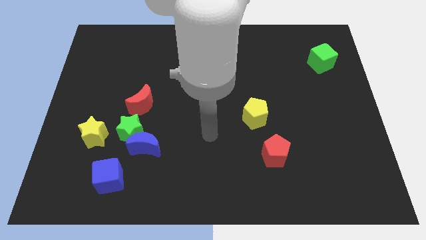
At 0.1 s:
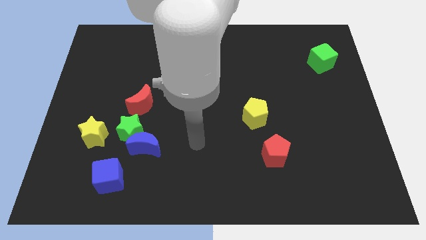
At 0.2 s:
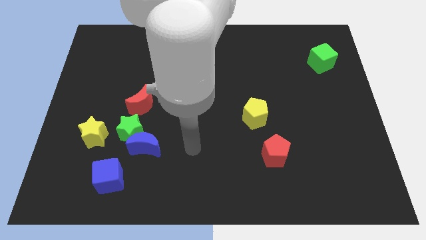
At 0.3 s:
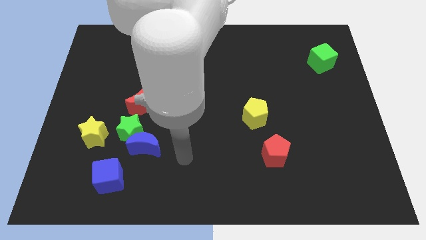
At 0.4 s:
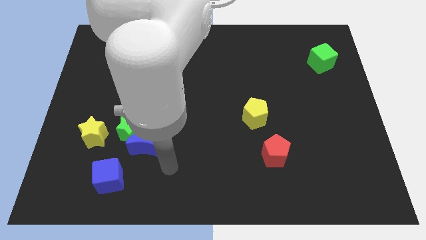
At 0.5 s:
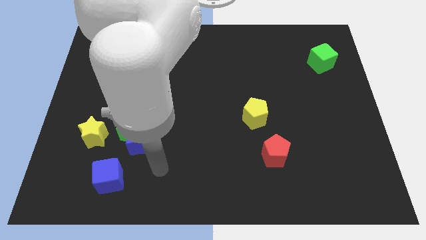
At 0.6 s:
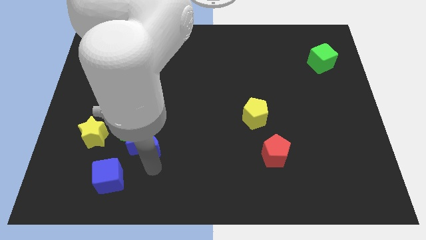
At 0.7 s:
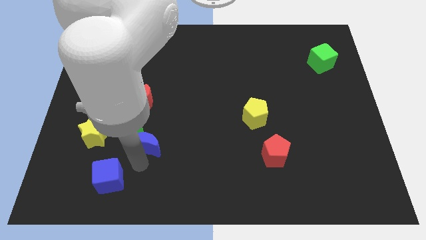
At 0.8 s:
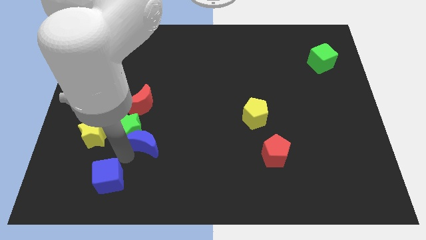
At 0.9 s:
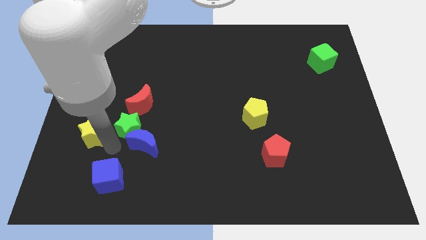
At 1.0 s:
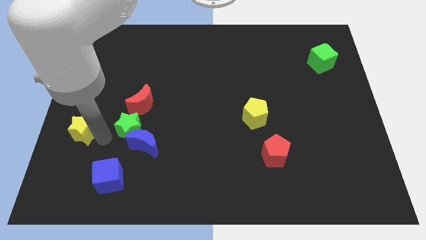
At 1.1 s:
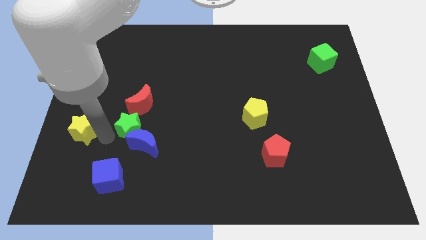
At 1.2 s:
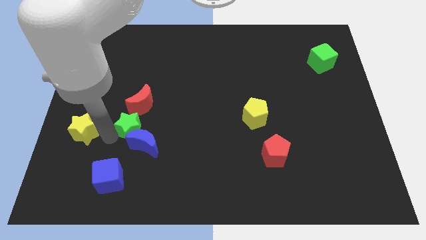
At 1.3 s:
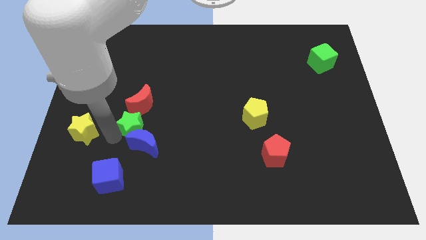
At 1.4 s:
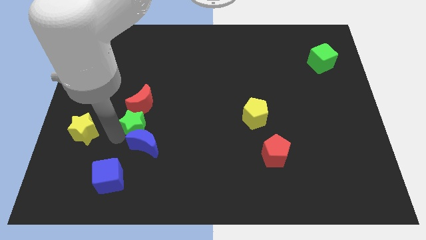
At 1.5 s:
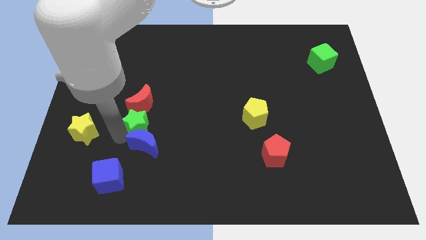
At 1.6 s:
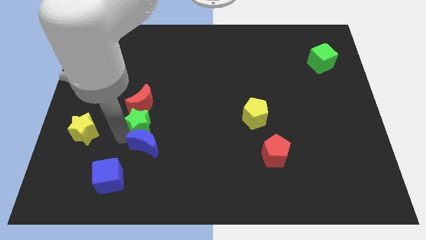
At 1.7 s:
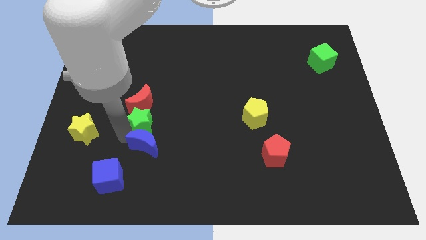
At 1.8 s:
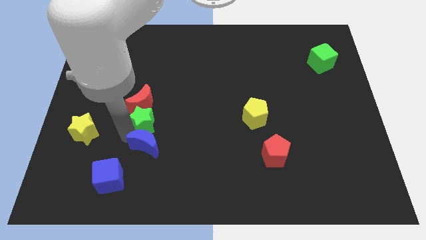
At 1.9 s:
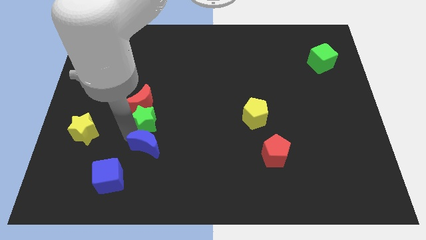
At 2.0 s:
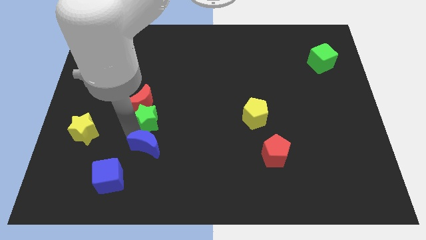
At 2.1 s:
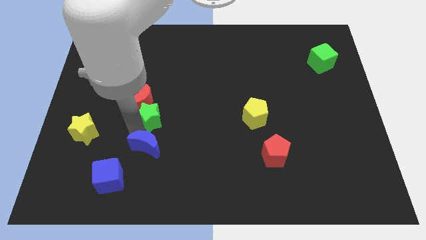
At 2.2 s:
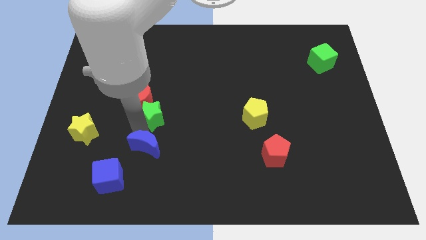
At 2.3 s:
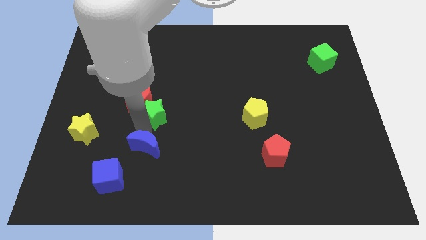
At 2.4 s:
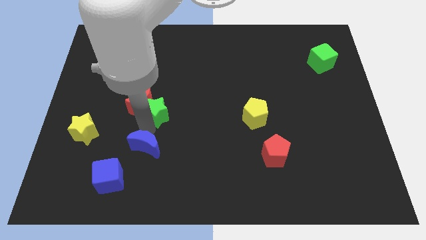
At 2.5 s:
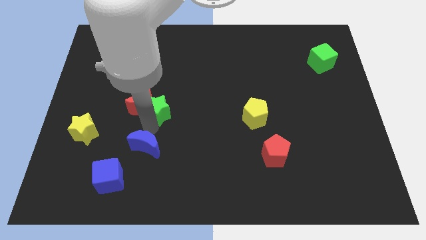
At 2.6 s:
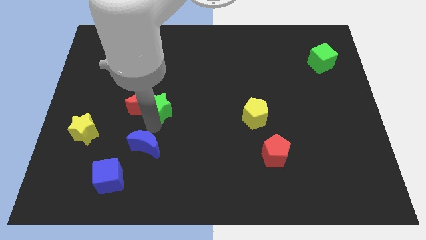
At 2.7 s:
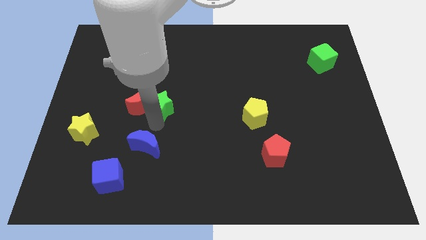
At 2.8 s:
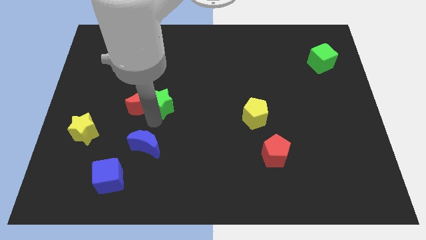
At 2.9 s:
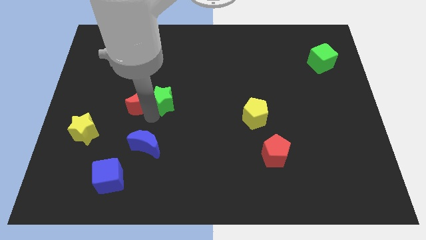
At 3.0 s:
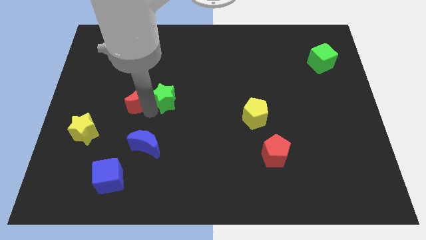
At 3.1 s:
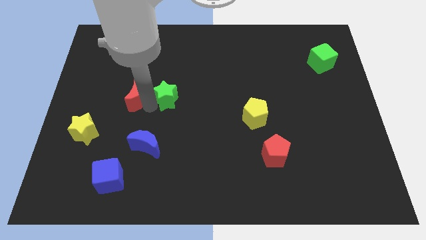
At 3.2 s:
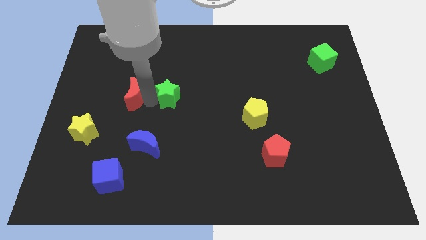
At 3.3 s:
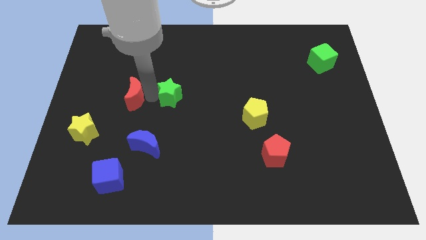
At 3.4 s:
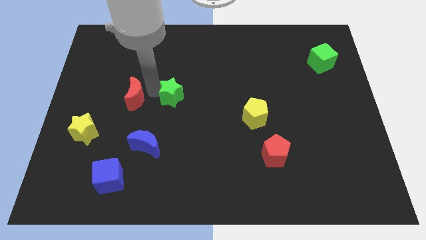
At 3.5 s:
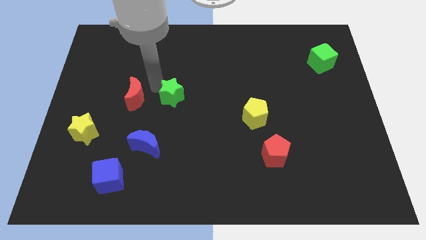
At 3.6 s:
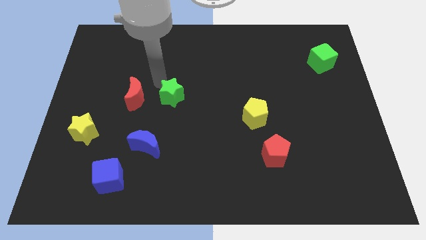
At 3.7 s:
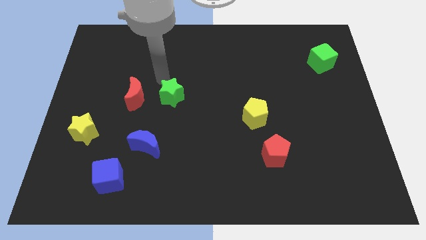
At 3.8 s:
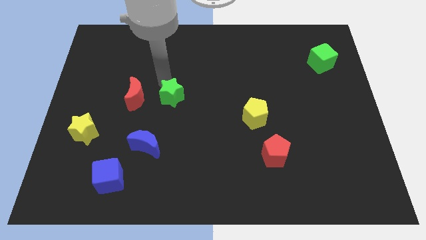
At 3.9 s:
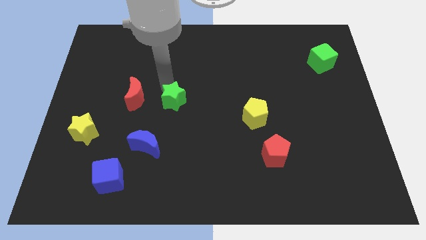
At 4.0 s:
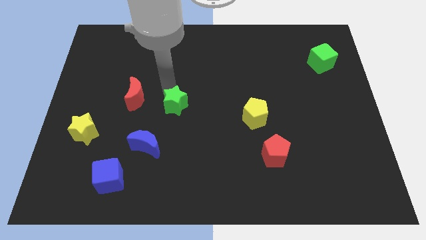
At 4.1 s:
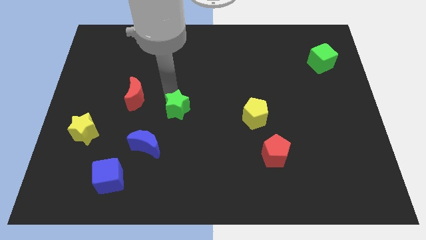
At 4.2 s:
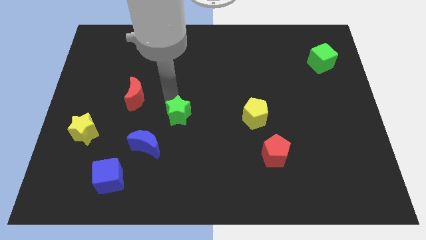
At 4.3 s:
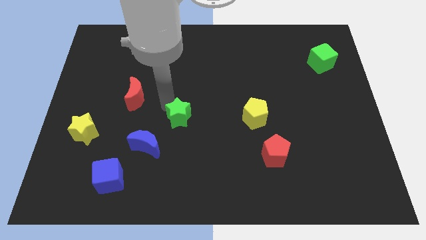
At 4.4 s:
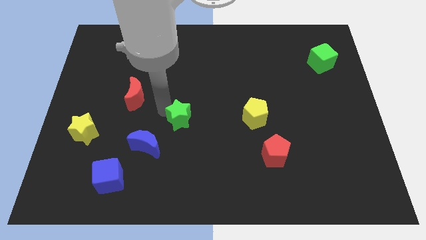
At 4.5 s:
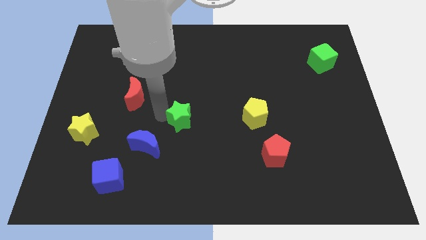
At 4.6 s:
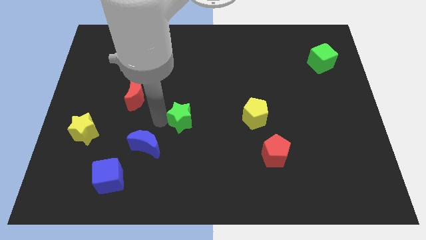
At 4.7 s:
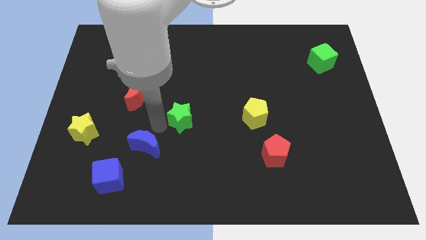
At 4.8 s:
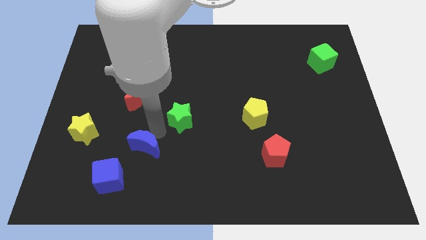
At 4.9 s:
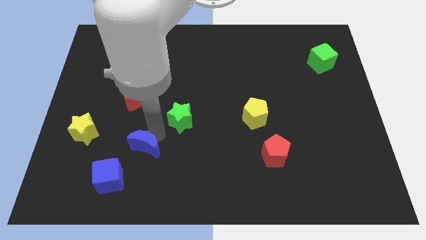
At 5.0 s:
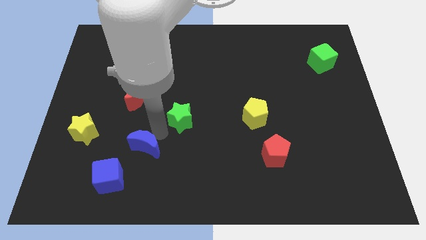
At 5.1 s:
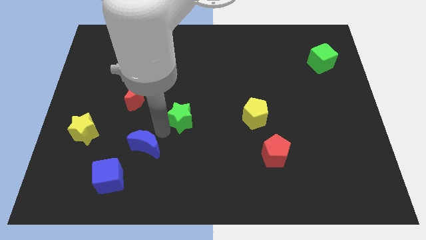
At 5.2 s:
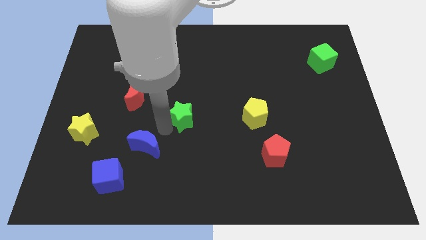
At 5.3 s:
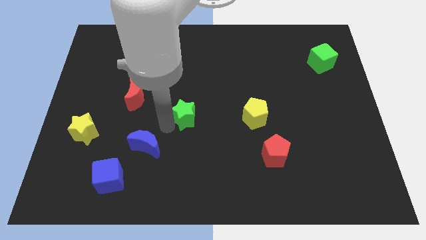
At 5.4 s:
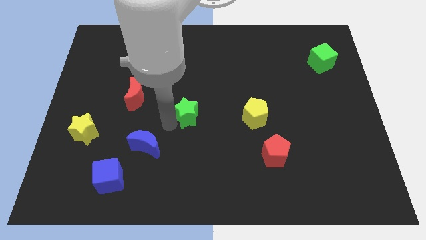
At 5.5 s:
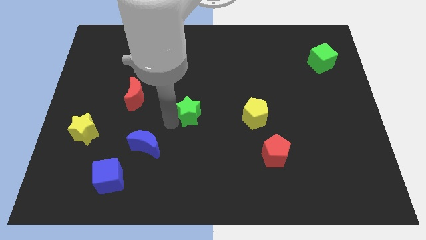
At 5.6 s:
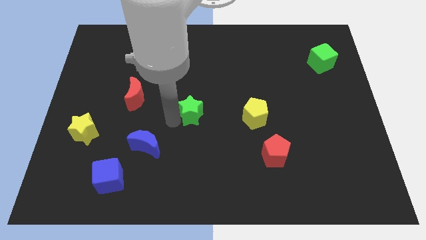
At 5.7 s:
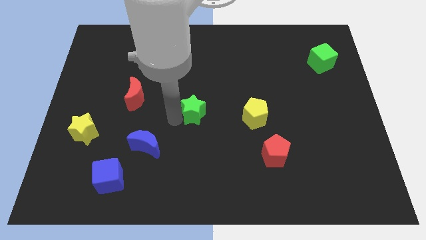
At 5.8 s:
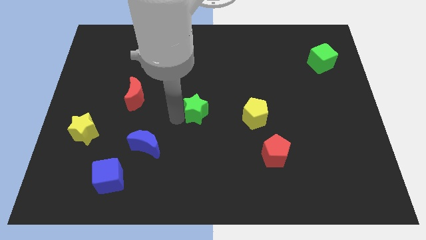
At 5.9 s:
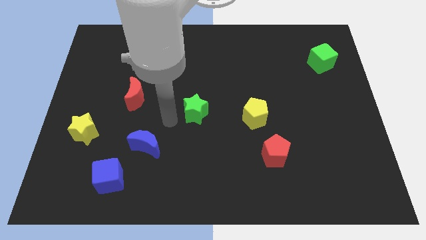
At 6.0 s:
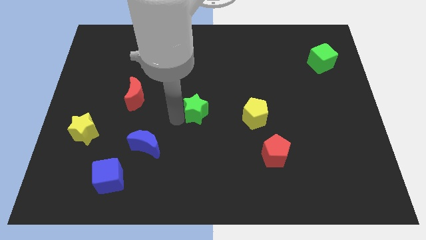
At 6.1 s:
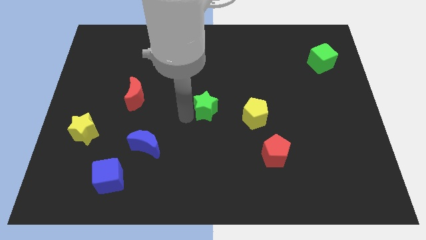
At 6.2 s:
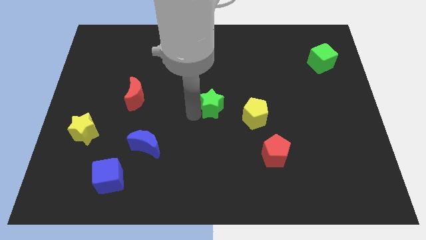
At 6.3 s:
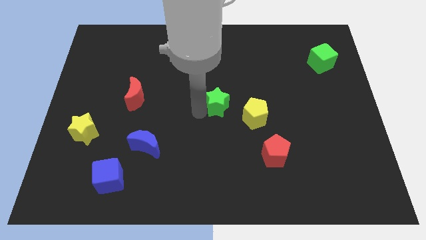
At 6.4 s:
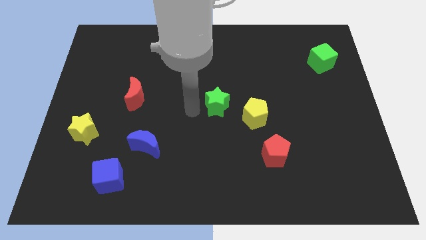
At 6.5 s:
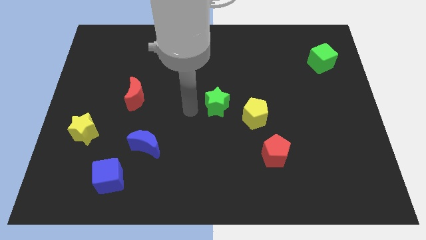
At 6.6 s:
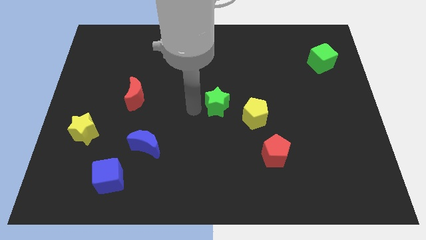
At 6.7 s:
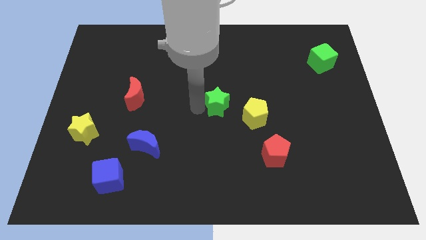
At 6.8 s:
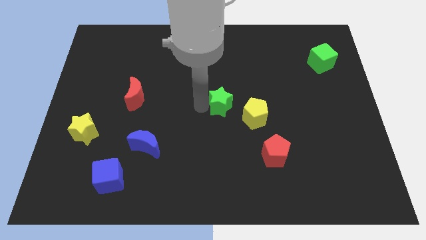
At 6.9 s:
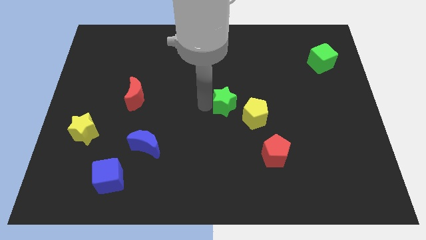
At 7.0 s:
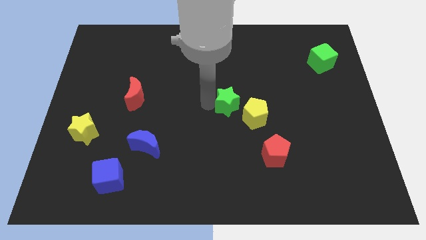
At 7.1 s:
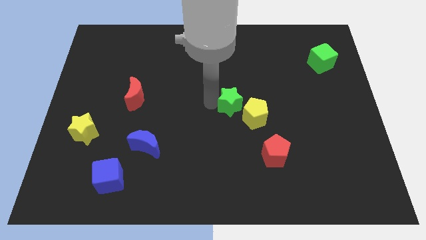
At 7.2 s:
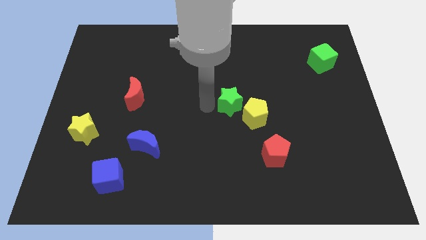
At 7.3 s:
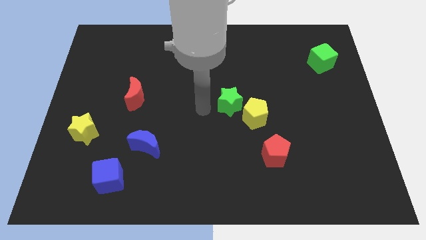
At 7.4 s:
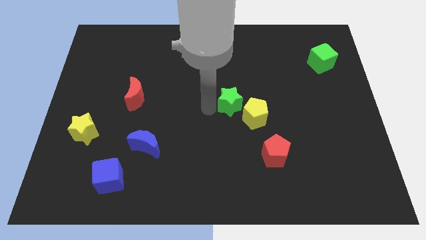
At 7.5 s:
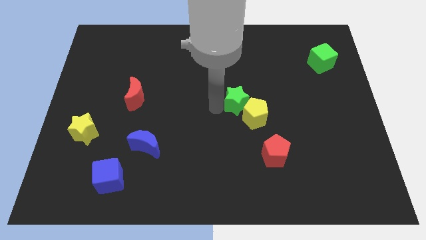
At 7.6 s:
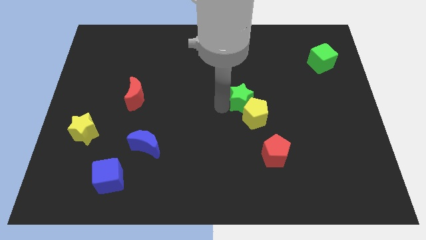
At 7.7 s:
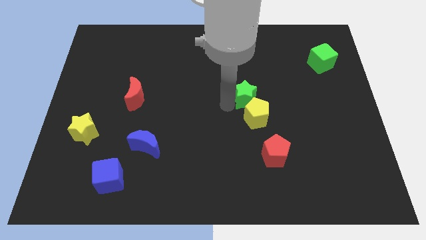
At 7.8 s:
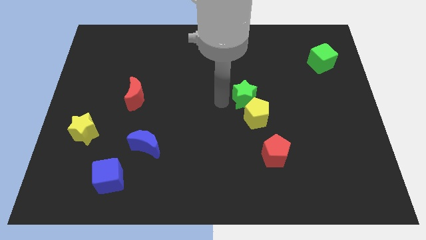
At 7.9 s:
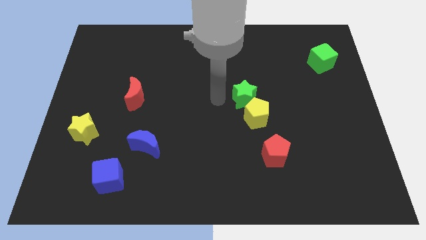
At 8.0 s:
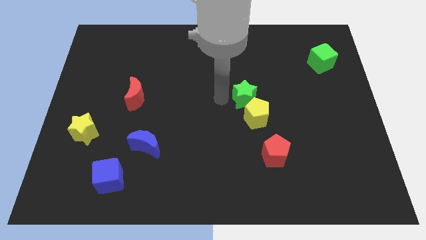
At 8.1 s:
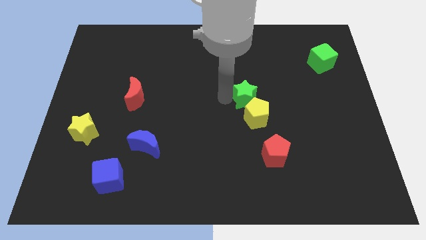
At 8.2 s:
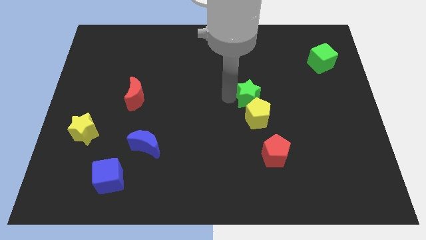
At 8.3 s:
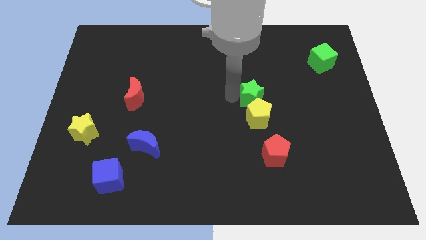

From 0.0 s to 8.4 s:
move the green star to the top right side of the yellow pentagon
